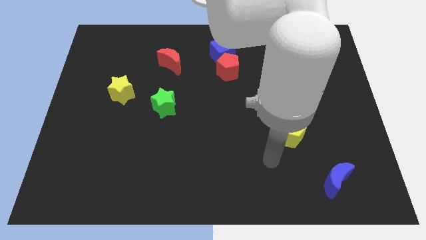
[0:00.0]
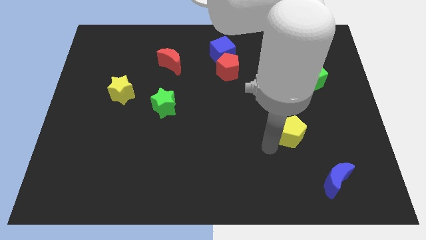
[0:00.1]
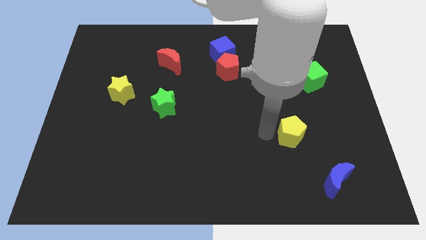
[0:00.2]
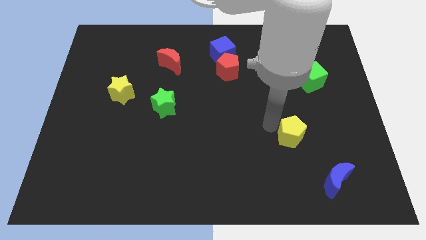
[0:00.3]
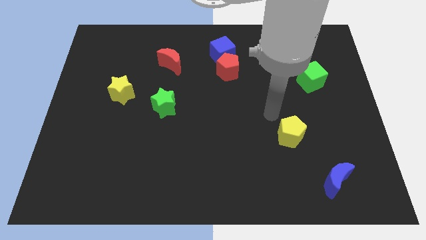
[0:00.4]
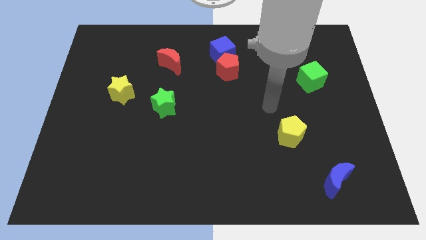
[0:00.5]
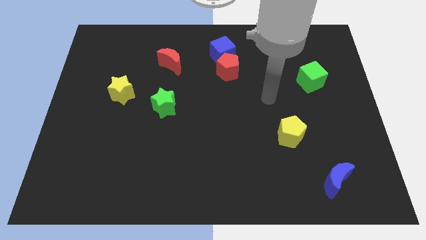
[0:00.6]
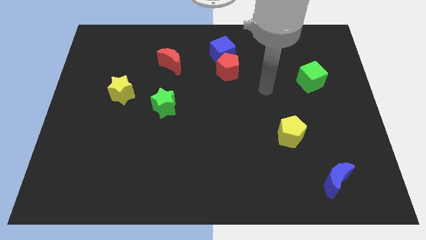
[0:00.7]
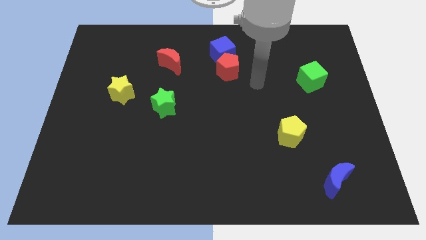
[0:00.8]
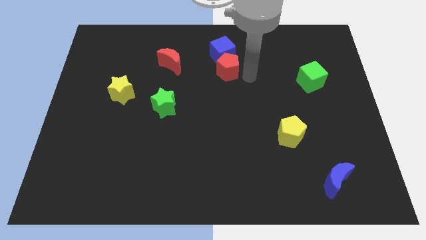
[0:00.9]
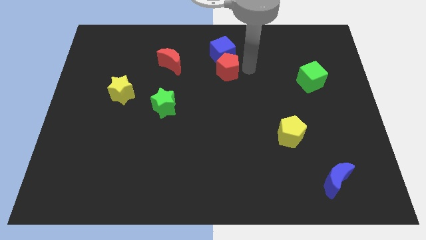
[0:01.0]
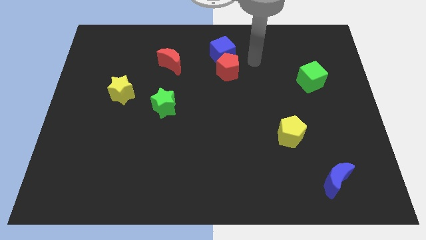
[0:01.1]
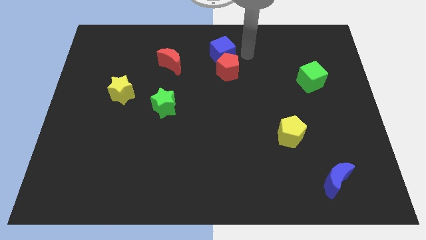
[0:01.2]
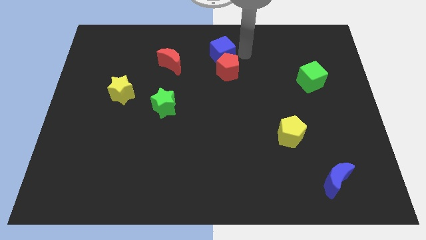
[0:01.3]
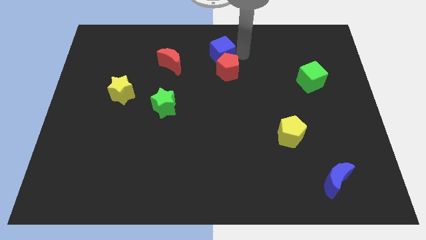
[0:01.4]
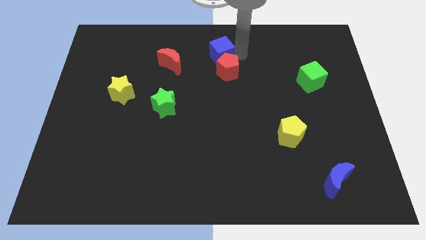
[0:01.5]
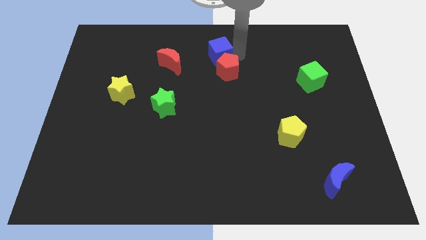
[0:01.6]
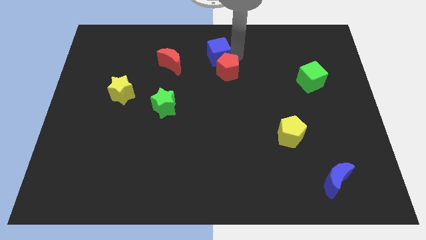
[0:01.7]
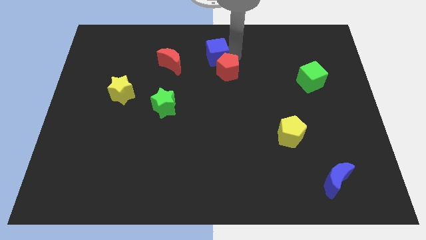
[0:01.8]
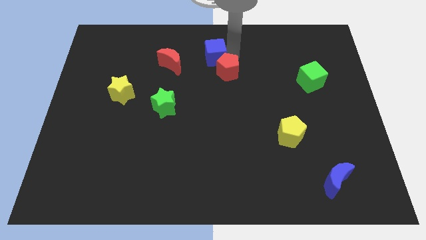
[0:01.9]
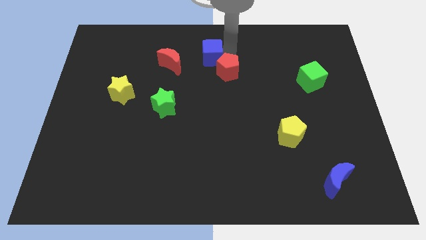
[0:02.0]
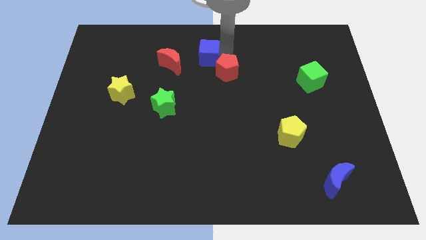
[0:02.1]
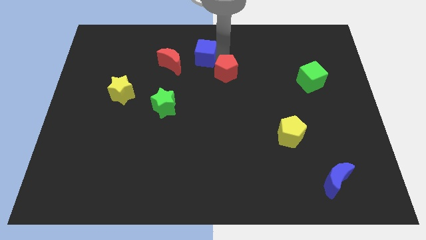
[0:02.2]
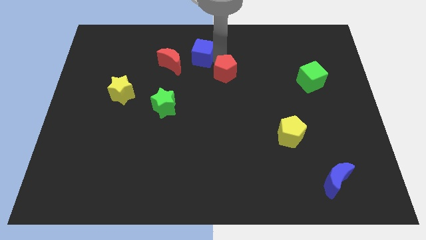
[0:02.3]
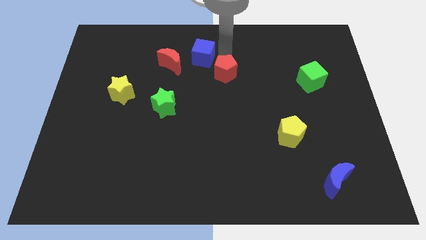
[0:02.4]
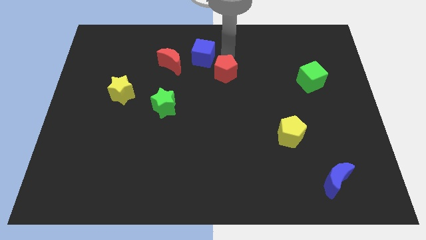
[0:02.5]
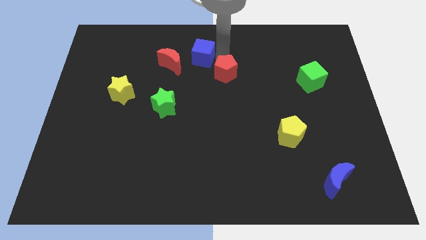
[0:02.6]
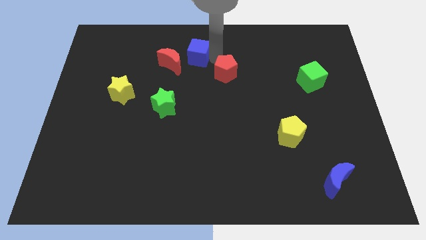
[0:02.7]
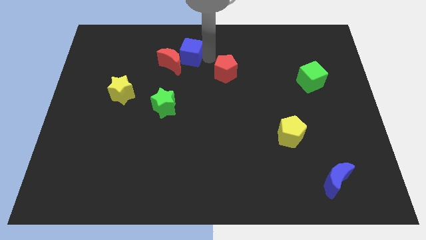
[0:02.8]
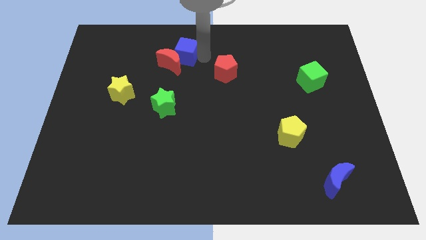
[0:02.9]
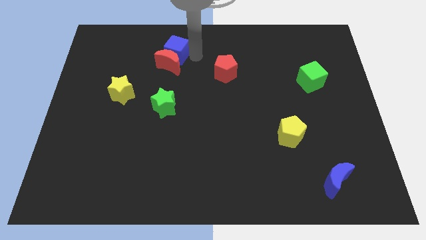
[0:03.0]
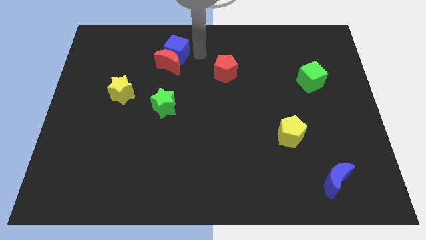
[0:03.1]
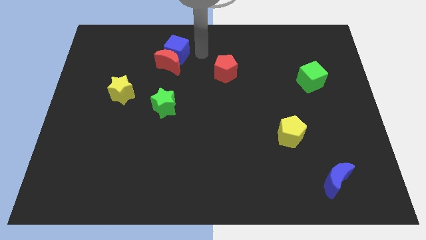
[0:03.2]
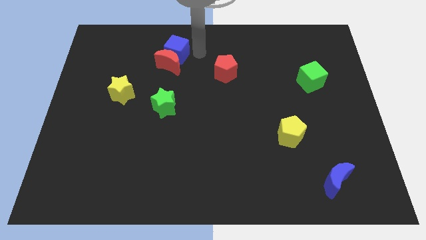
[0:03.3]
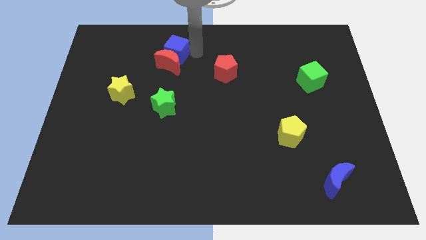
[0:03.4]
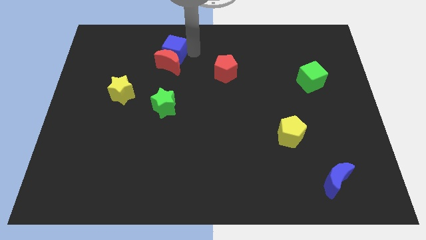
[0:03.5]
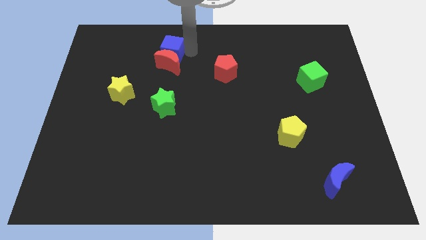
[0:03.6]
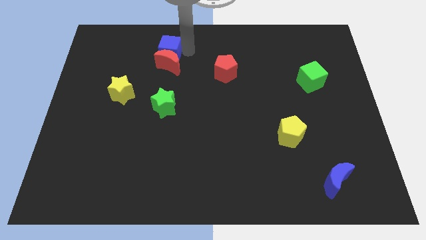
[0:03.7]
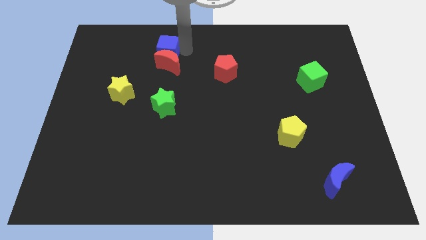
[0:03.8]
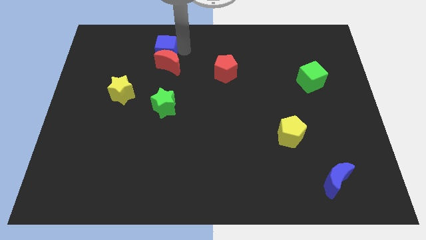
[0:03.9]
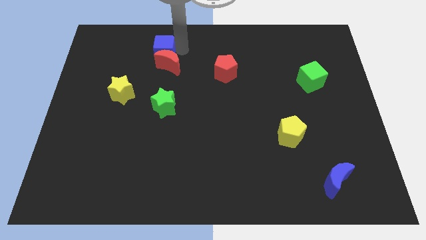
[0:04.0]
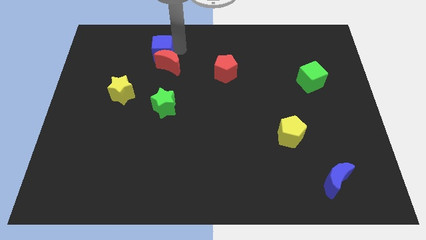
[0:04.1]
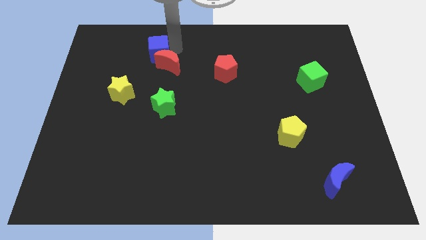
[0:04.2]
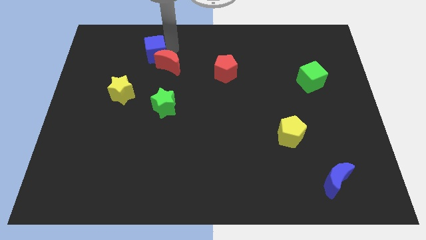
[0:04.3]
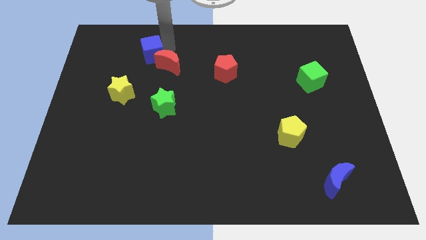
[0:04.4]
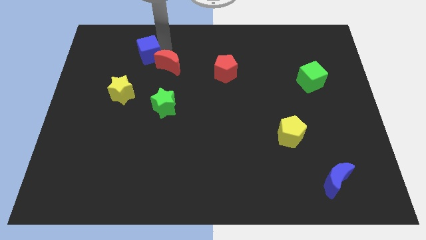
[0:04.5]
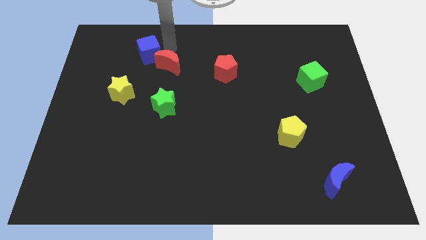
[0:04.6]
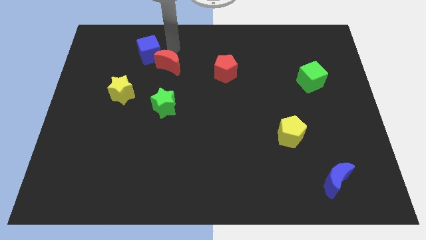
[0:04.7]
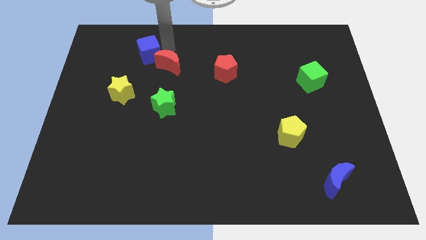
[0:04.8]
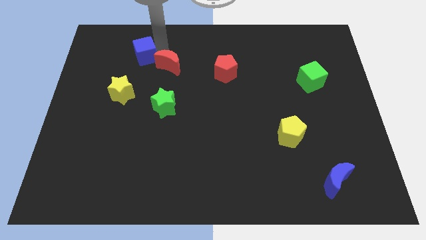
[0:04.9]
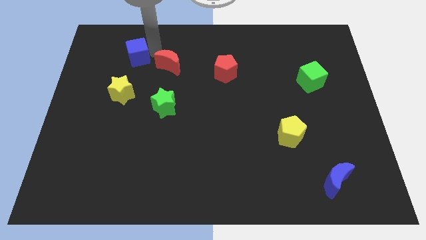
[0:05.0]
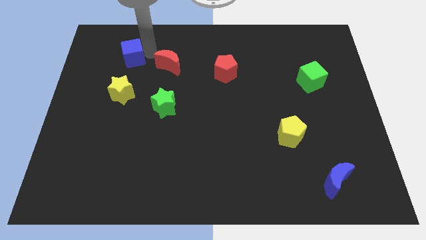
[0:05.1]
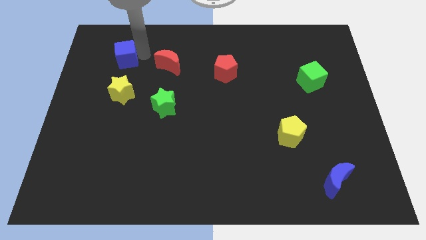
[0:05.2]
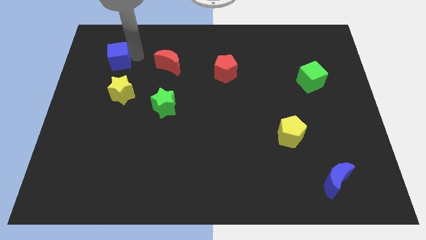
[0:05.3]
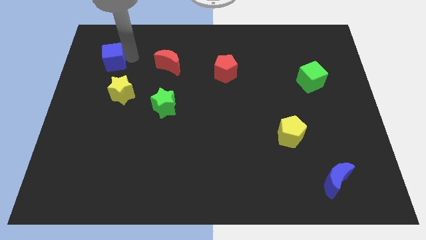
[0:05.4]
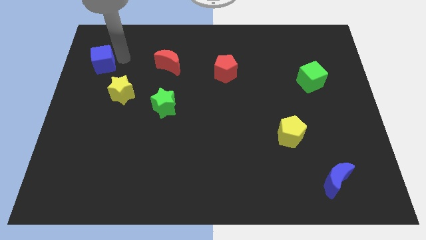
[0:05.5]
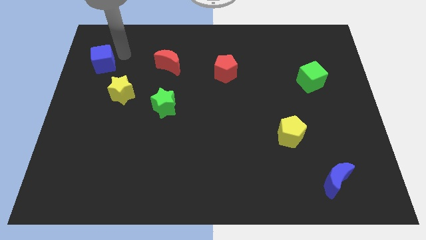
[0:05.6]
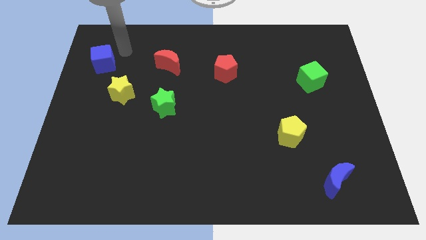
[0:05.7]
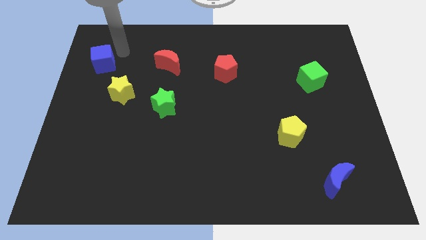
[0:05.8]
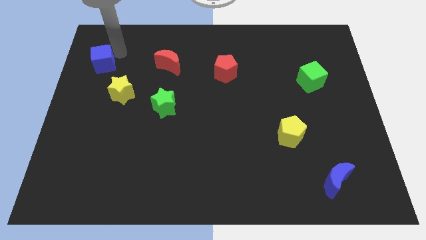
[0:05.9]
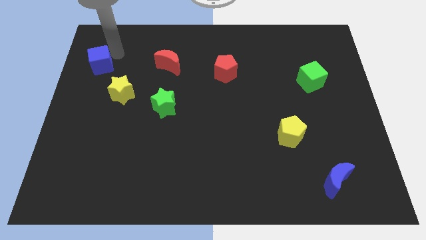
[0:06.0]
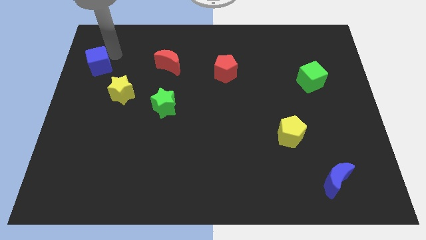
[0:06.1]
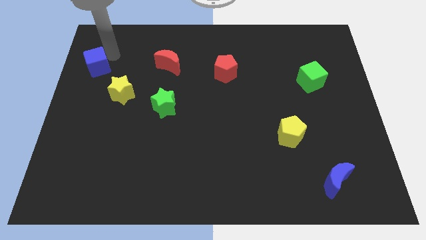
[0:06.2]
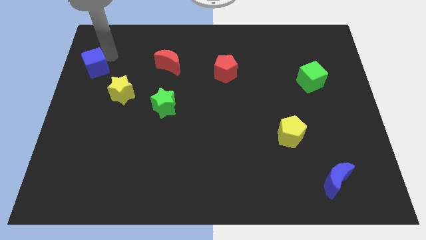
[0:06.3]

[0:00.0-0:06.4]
move the blue cube to the left side of the board

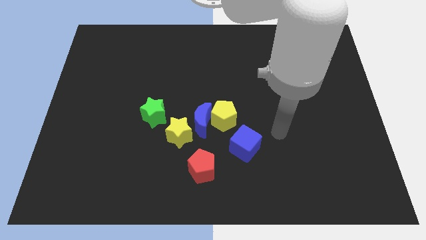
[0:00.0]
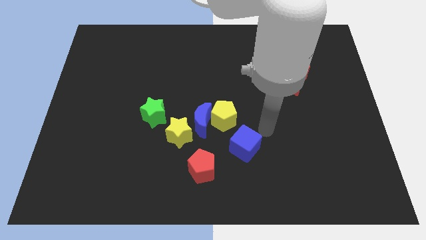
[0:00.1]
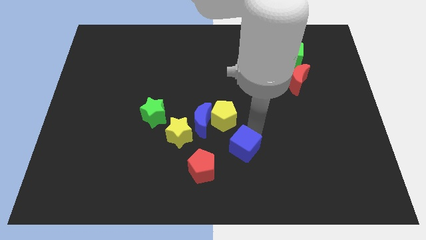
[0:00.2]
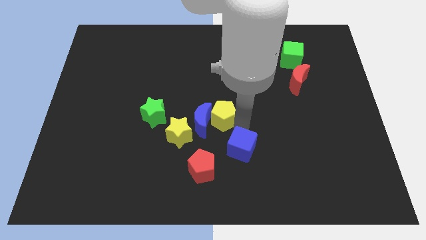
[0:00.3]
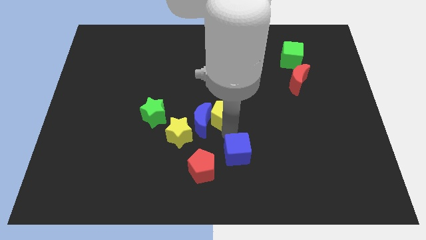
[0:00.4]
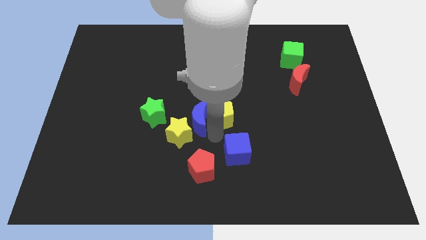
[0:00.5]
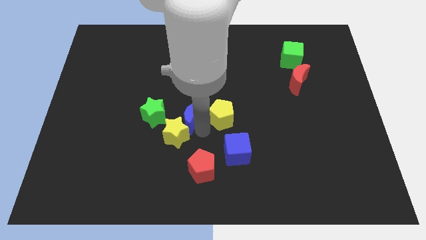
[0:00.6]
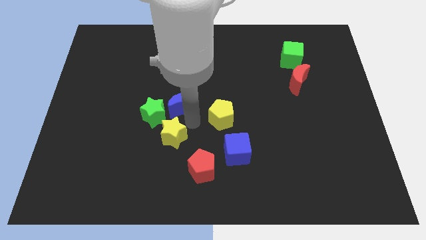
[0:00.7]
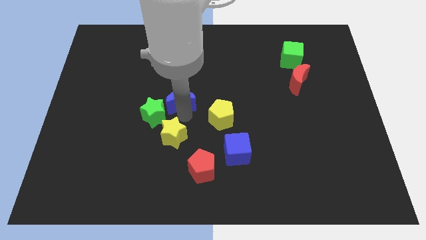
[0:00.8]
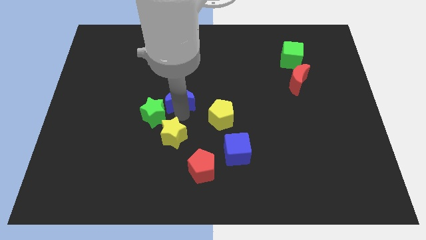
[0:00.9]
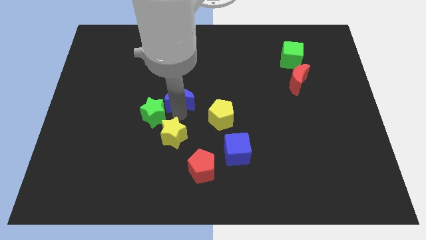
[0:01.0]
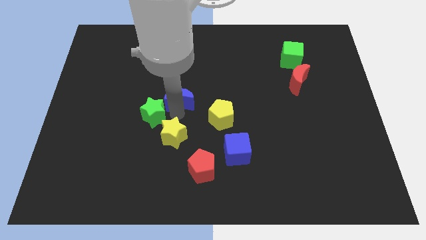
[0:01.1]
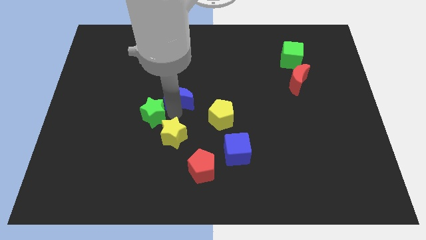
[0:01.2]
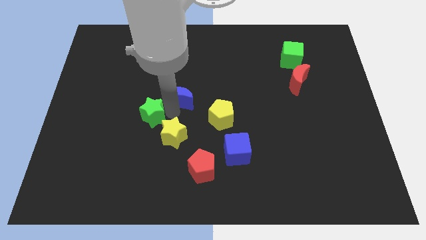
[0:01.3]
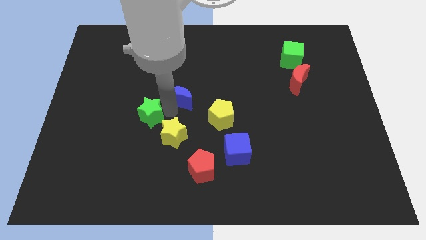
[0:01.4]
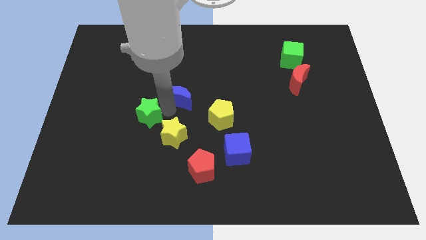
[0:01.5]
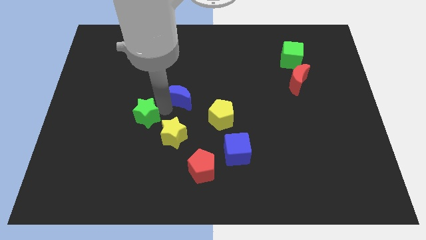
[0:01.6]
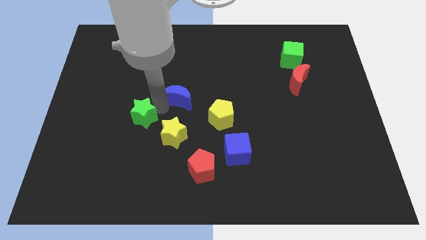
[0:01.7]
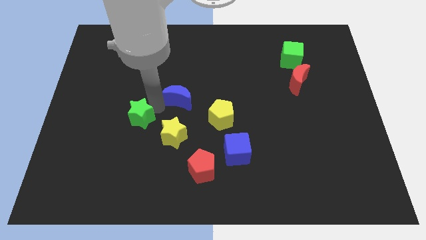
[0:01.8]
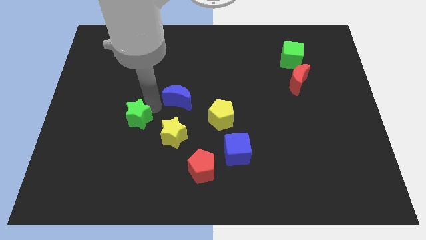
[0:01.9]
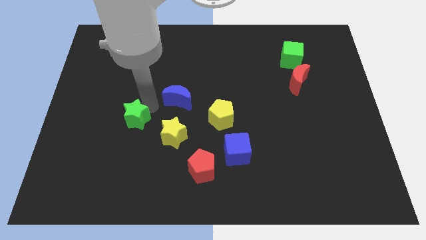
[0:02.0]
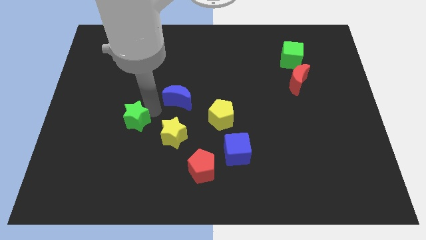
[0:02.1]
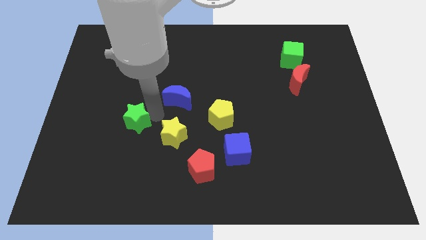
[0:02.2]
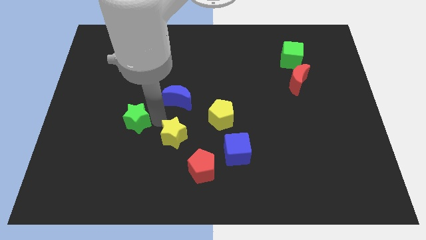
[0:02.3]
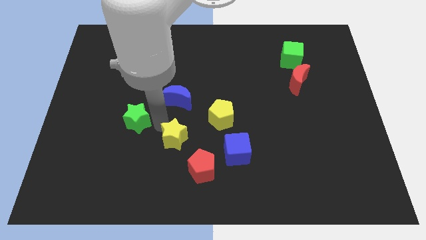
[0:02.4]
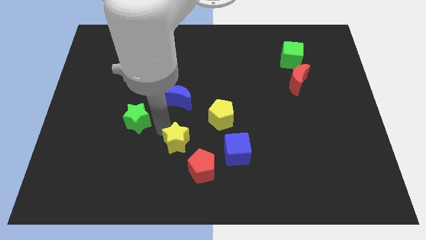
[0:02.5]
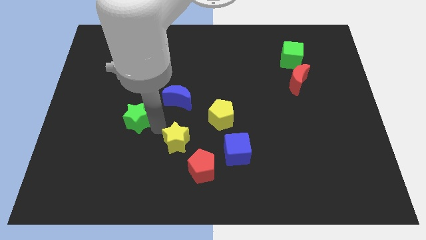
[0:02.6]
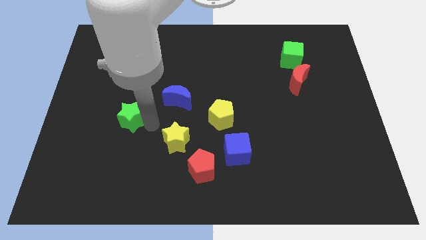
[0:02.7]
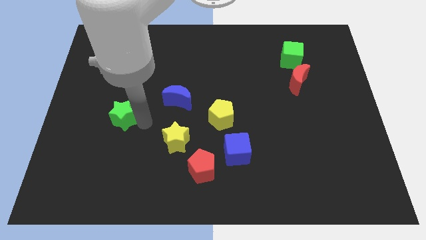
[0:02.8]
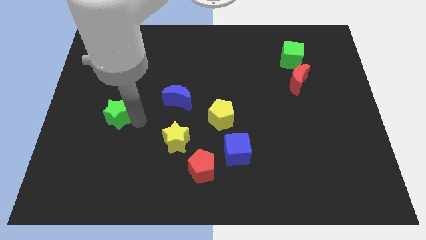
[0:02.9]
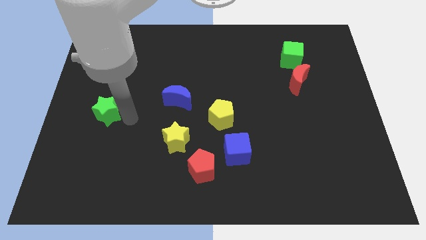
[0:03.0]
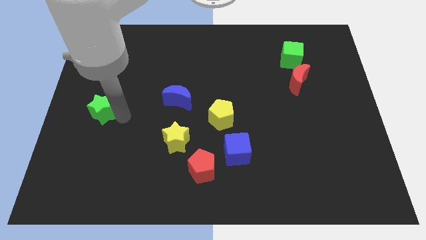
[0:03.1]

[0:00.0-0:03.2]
move the green star to the left side
